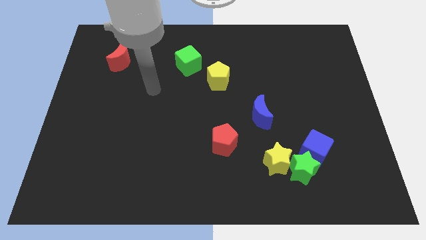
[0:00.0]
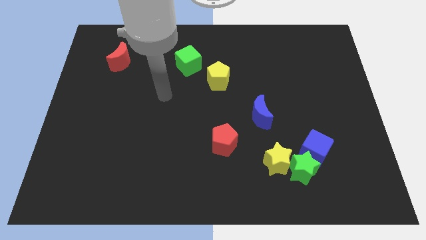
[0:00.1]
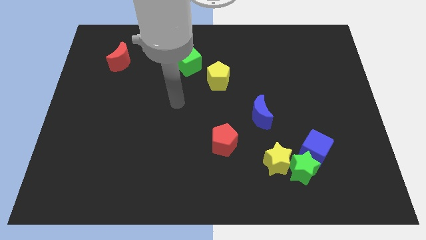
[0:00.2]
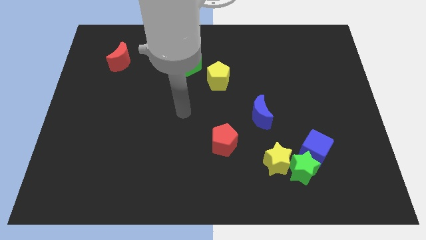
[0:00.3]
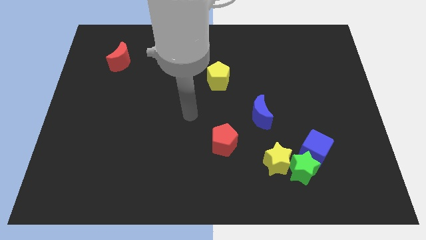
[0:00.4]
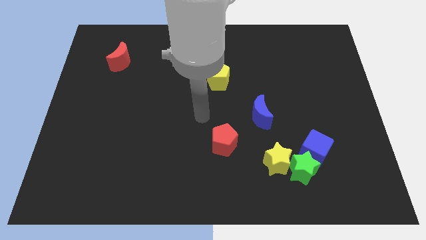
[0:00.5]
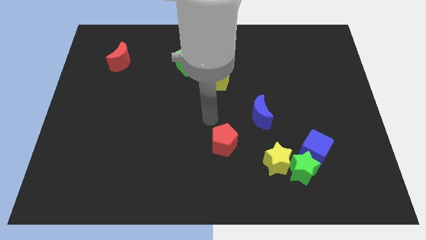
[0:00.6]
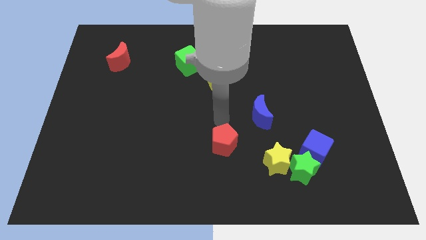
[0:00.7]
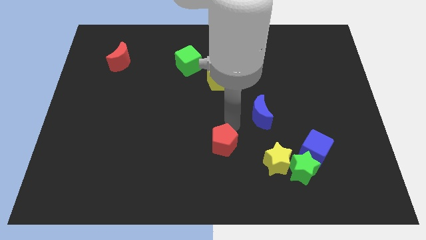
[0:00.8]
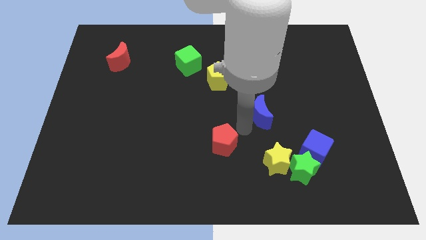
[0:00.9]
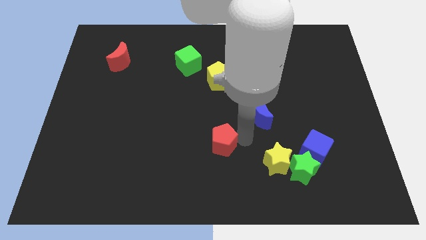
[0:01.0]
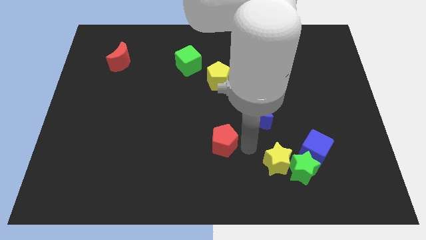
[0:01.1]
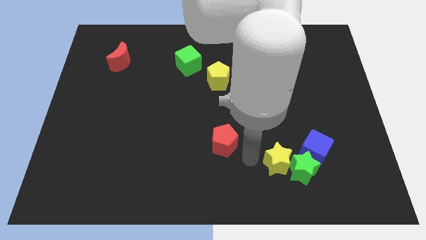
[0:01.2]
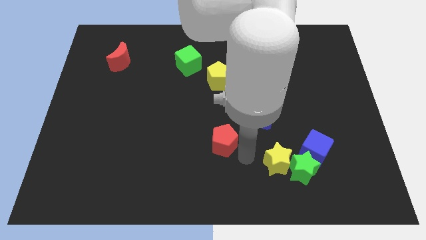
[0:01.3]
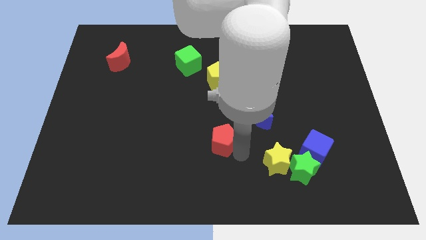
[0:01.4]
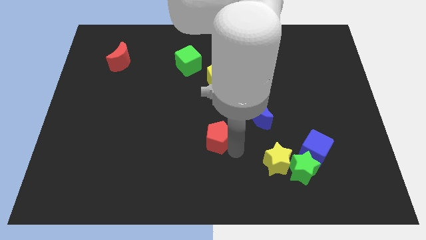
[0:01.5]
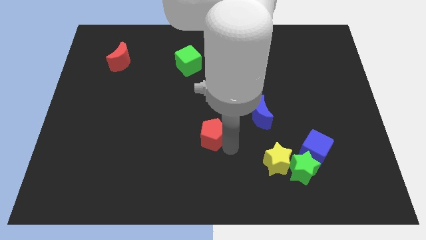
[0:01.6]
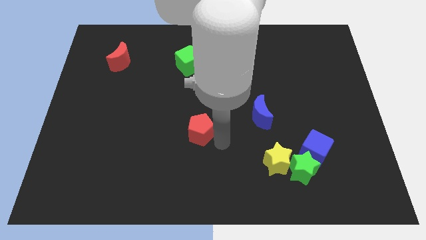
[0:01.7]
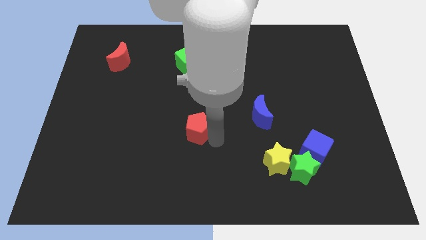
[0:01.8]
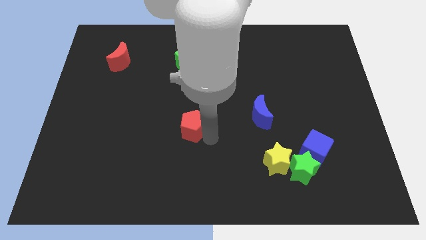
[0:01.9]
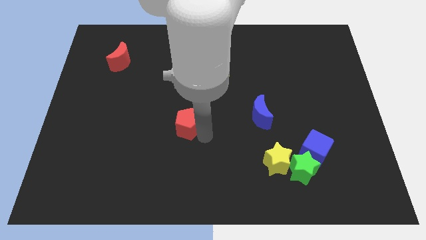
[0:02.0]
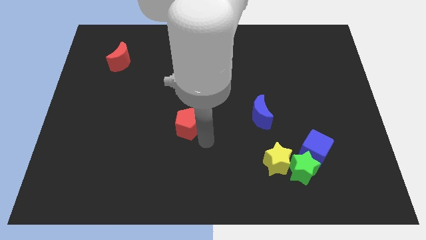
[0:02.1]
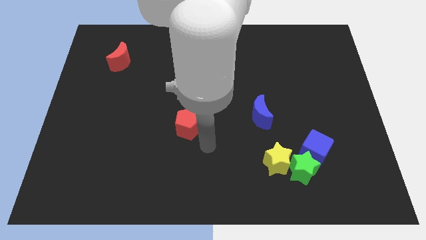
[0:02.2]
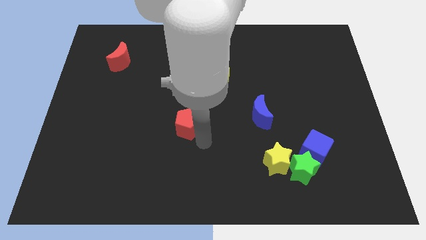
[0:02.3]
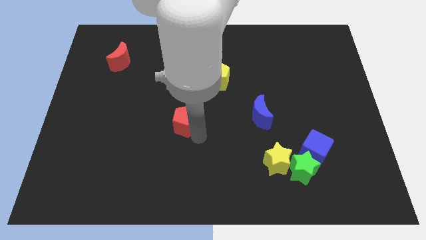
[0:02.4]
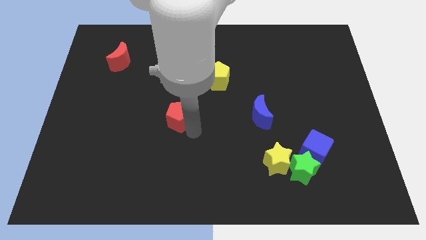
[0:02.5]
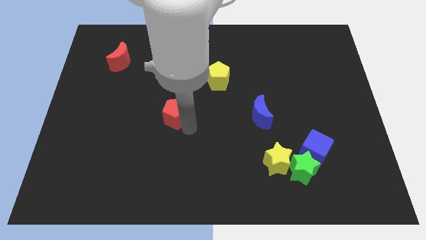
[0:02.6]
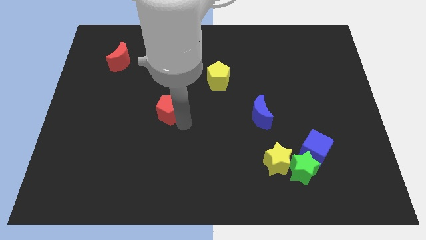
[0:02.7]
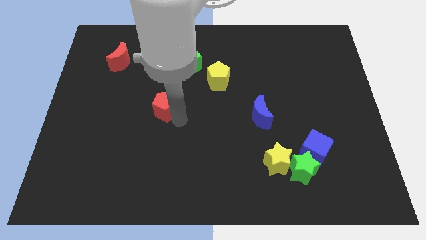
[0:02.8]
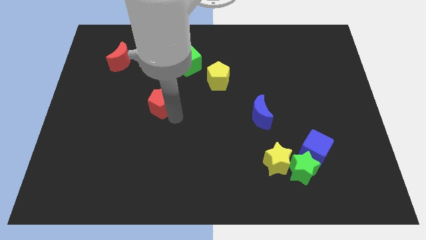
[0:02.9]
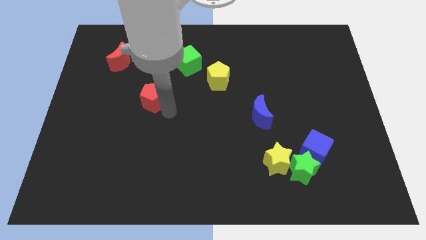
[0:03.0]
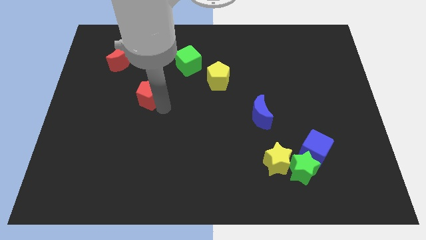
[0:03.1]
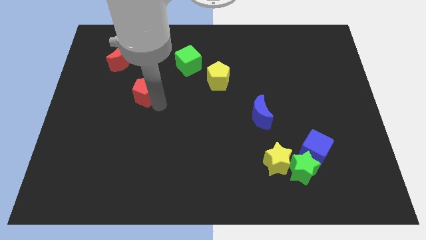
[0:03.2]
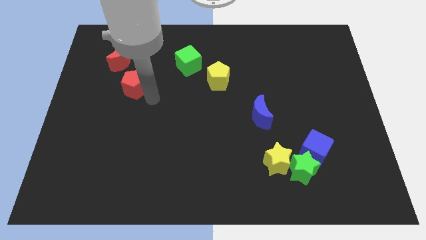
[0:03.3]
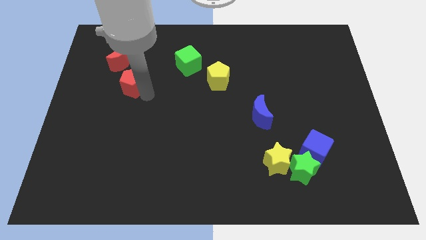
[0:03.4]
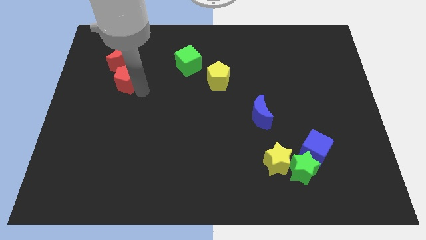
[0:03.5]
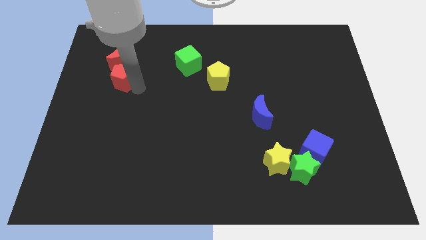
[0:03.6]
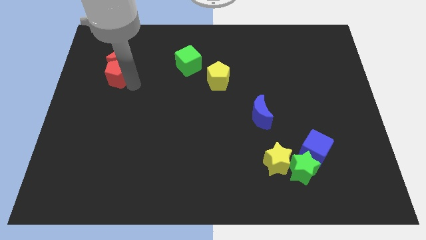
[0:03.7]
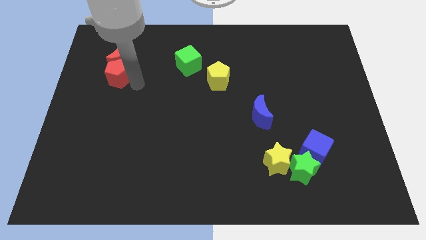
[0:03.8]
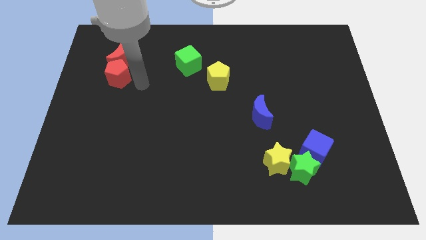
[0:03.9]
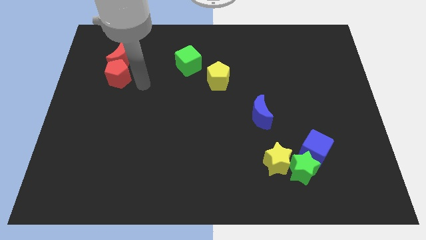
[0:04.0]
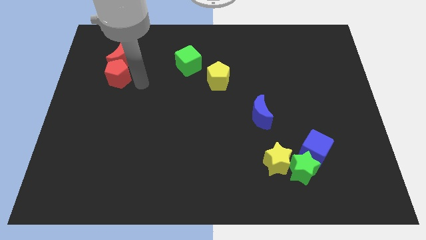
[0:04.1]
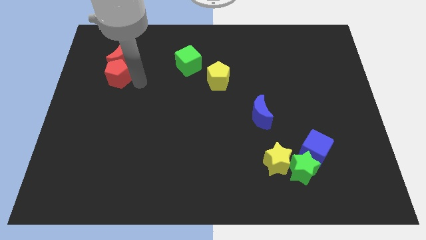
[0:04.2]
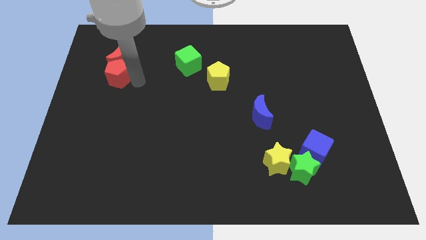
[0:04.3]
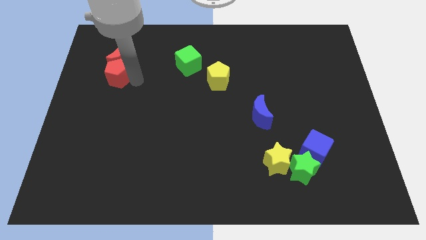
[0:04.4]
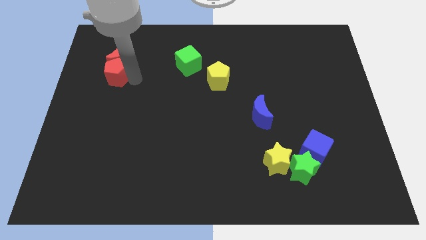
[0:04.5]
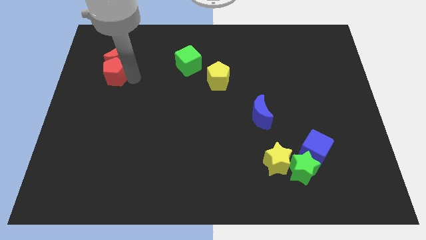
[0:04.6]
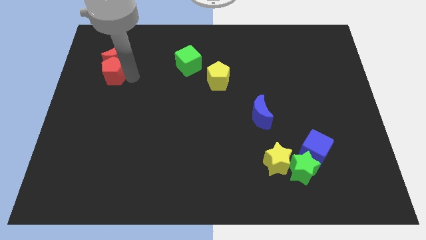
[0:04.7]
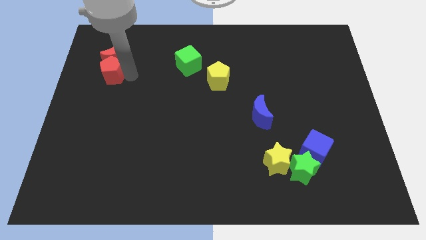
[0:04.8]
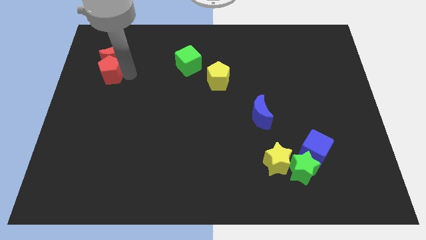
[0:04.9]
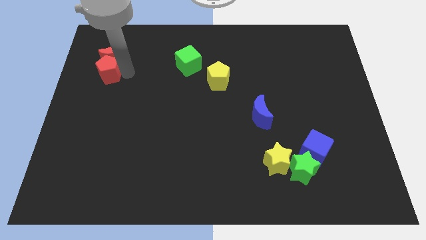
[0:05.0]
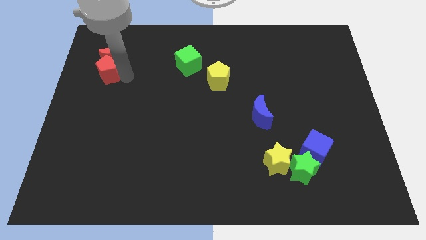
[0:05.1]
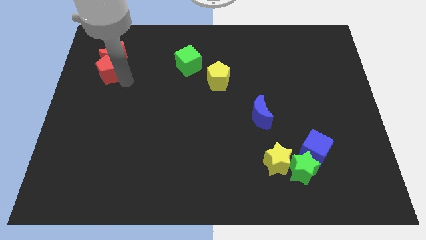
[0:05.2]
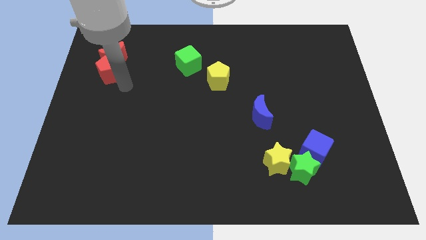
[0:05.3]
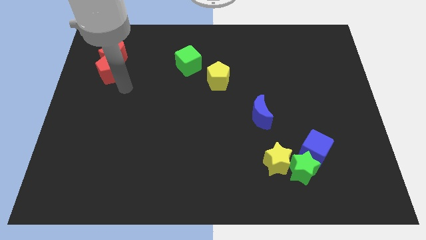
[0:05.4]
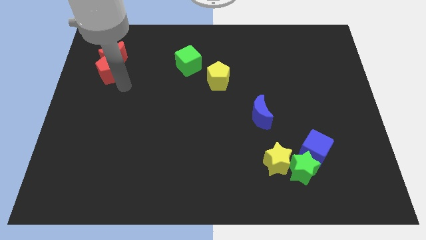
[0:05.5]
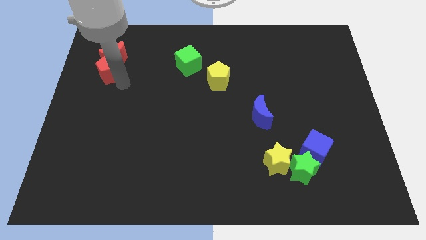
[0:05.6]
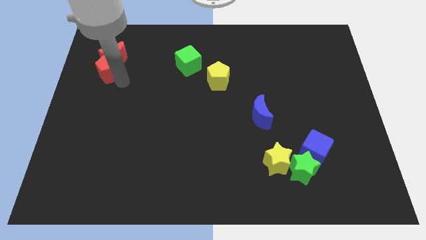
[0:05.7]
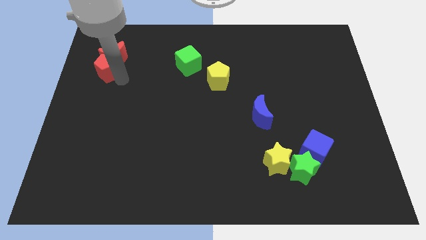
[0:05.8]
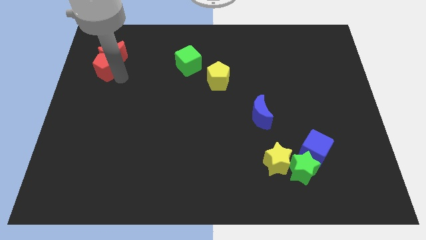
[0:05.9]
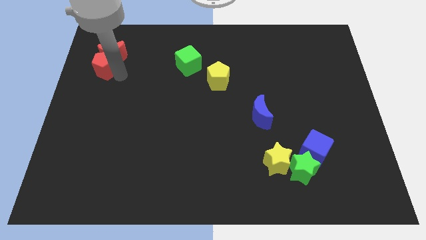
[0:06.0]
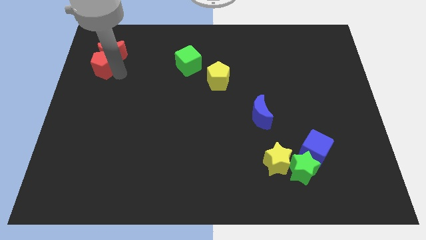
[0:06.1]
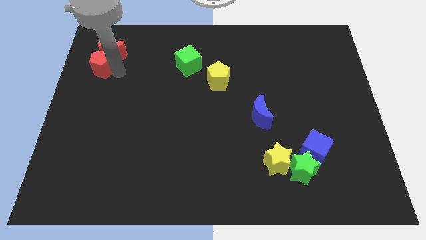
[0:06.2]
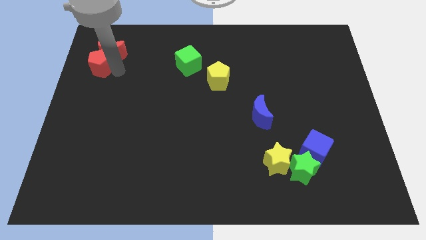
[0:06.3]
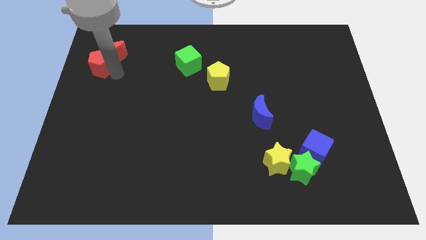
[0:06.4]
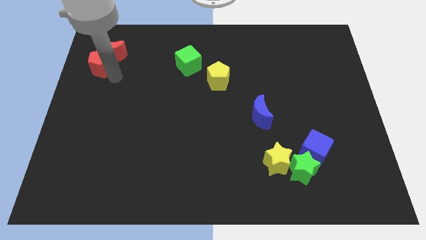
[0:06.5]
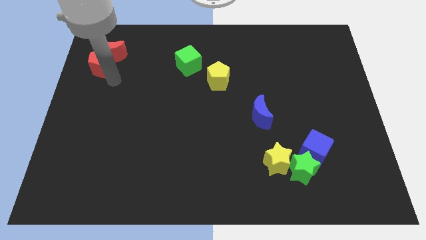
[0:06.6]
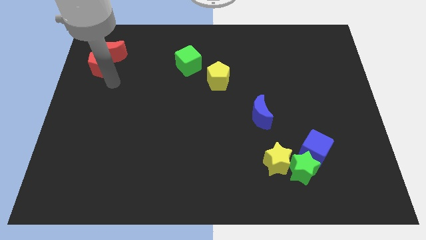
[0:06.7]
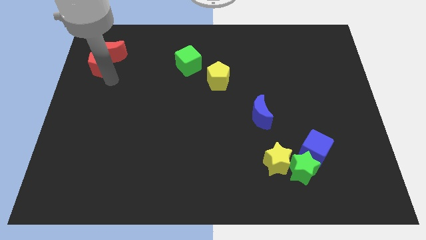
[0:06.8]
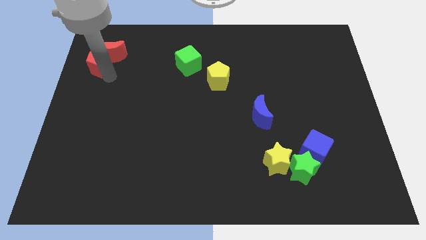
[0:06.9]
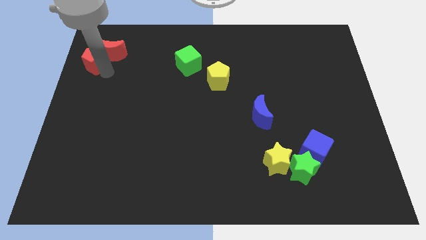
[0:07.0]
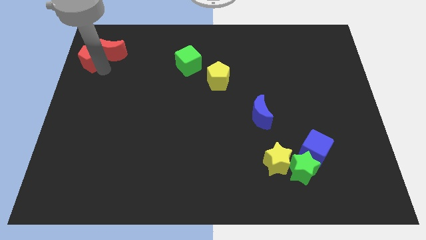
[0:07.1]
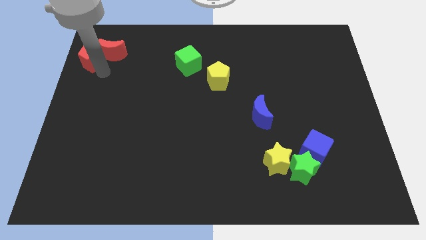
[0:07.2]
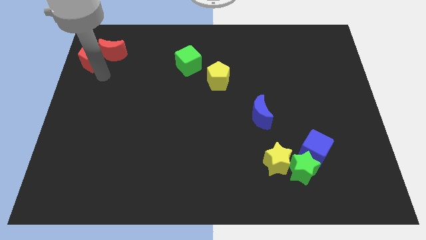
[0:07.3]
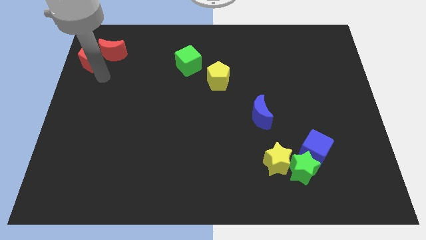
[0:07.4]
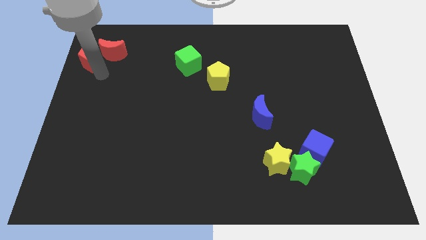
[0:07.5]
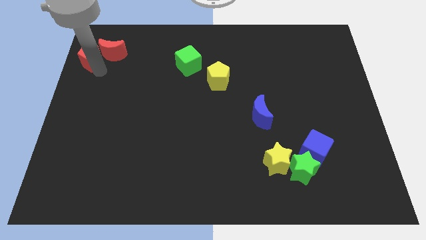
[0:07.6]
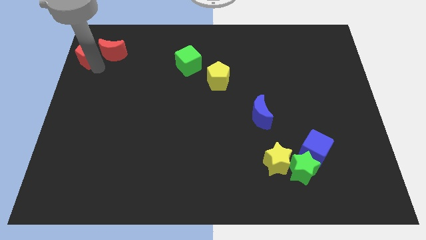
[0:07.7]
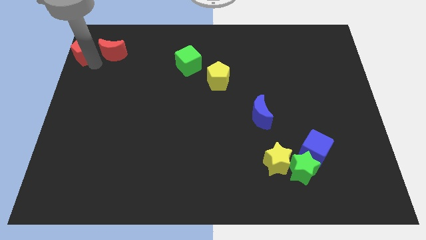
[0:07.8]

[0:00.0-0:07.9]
put the red pentagon to the top left corner
